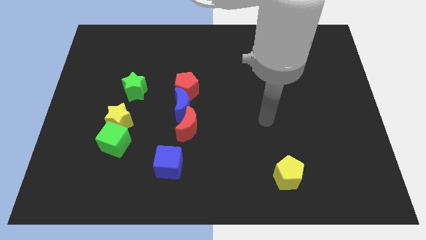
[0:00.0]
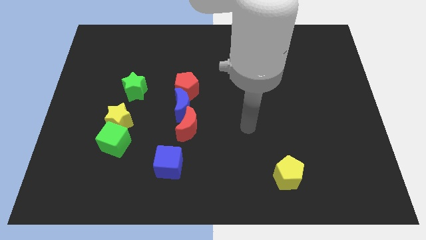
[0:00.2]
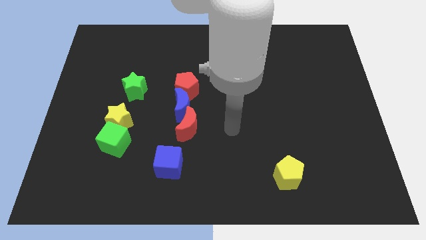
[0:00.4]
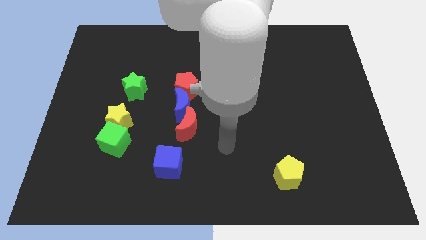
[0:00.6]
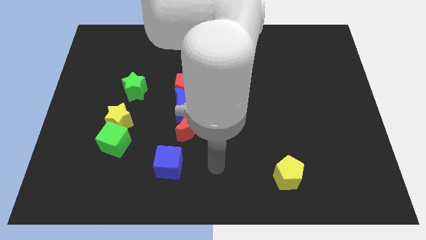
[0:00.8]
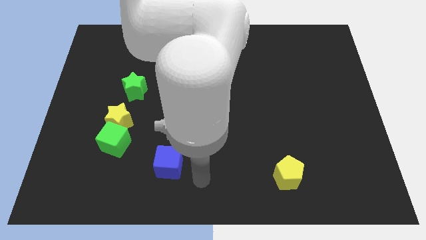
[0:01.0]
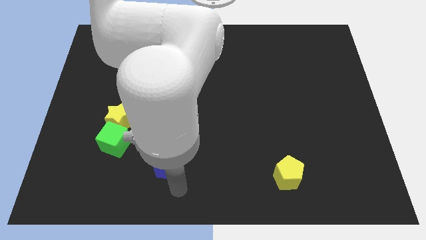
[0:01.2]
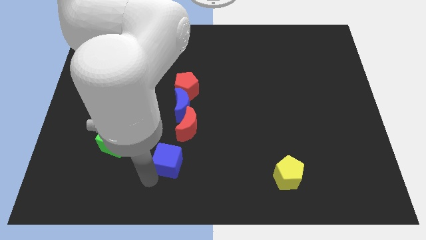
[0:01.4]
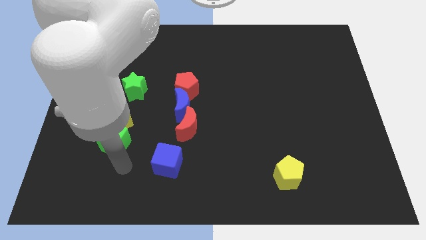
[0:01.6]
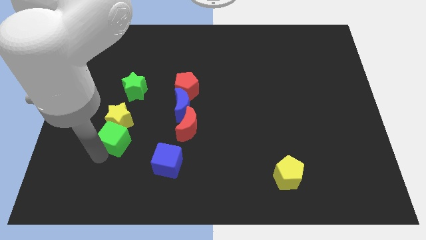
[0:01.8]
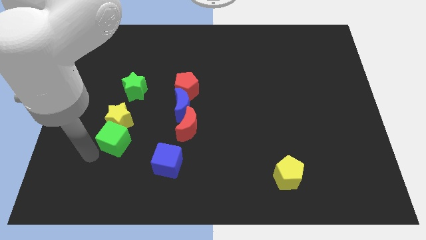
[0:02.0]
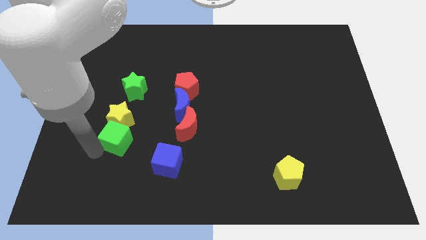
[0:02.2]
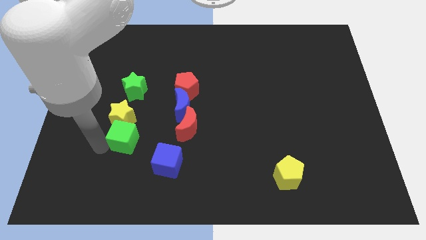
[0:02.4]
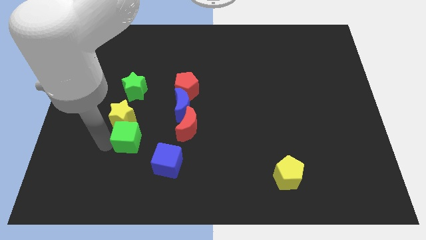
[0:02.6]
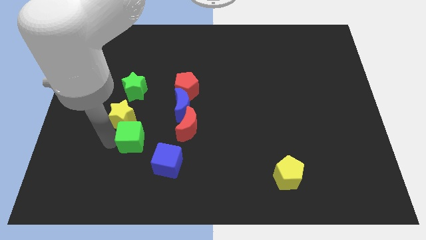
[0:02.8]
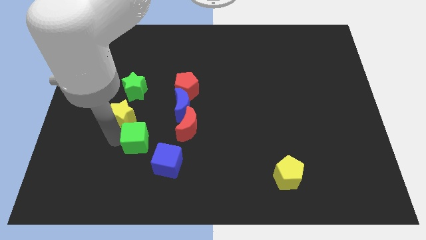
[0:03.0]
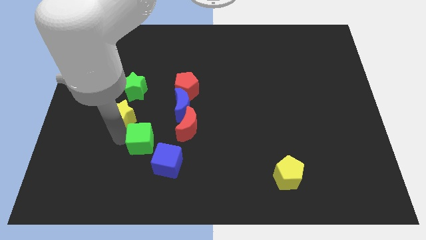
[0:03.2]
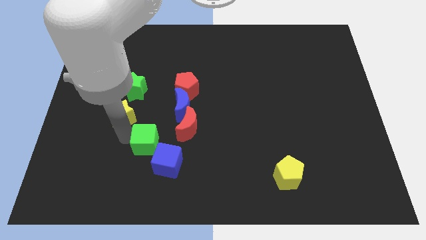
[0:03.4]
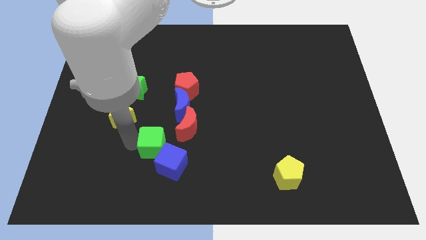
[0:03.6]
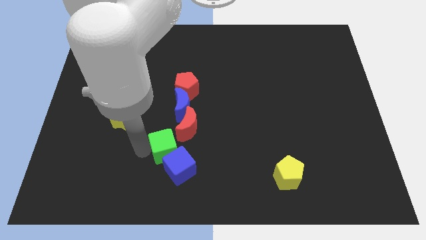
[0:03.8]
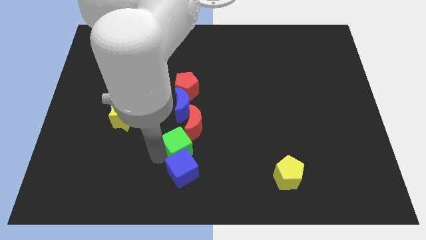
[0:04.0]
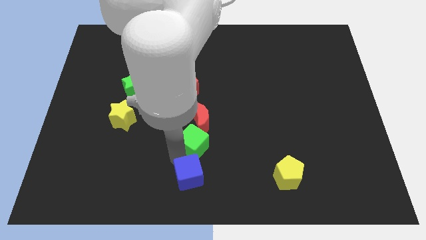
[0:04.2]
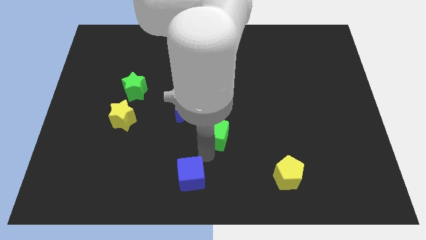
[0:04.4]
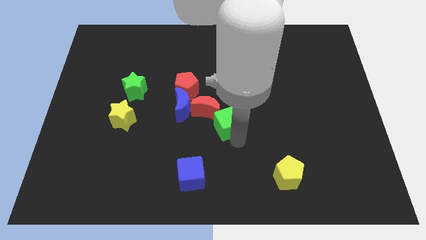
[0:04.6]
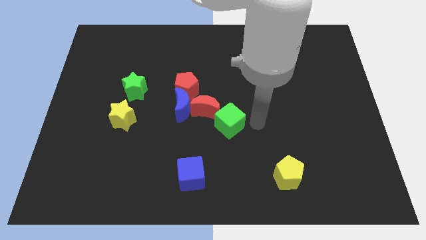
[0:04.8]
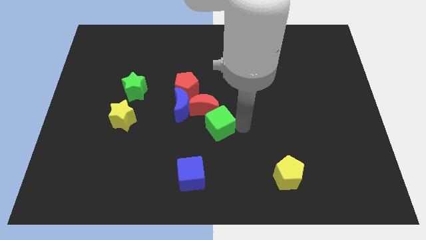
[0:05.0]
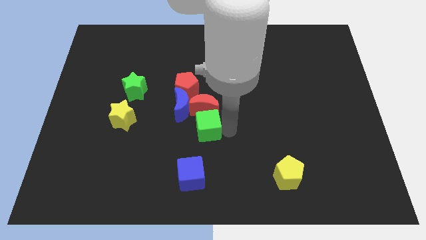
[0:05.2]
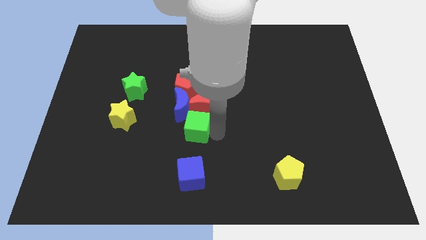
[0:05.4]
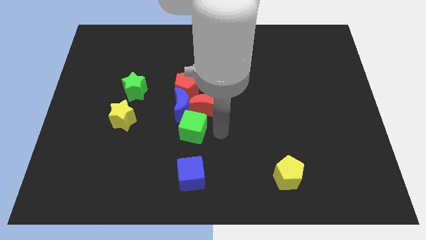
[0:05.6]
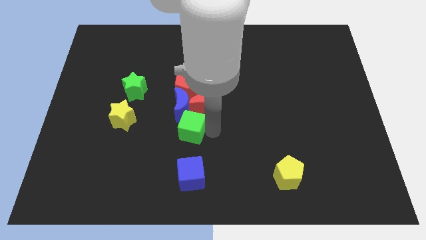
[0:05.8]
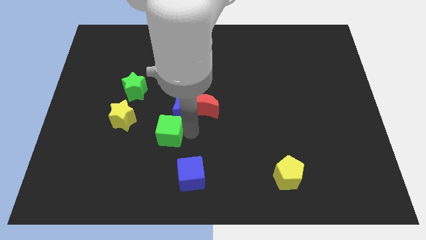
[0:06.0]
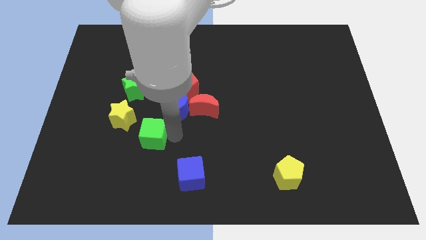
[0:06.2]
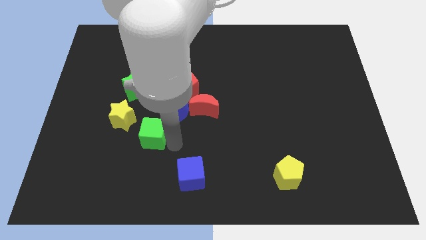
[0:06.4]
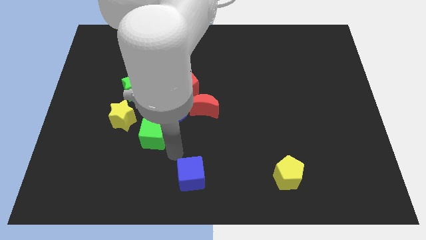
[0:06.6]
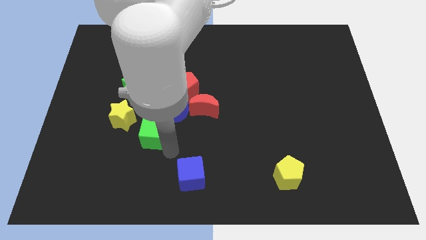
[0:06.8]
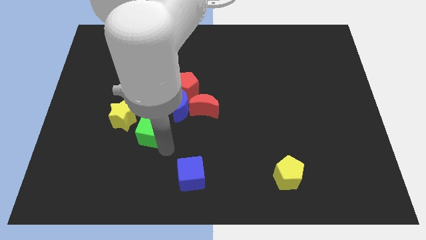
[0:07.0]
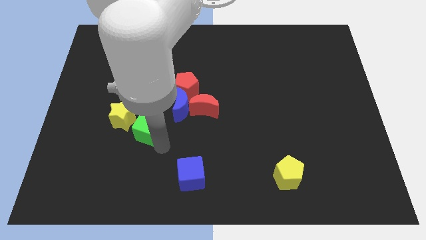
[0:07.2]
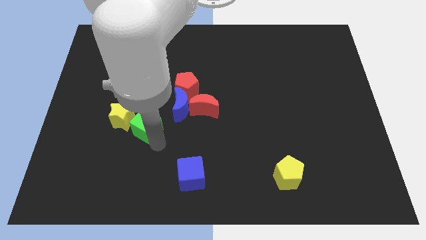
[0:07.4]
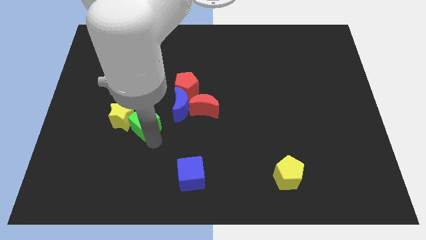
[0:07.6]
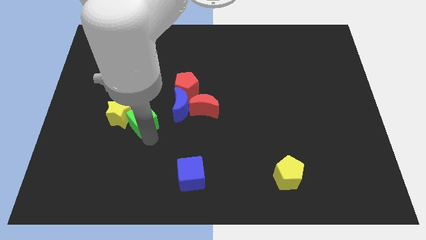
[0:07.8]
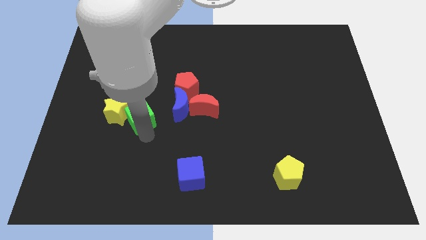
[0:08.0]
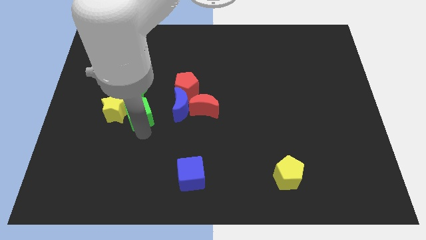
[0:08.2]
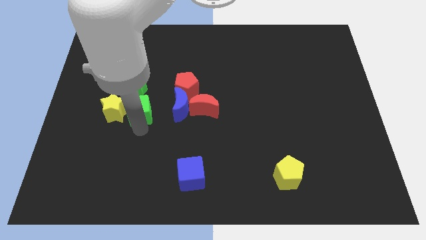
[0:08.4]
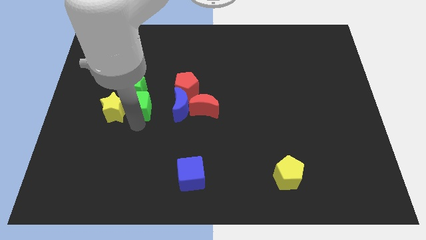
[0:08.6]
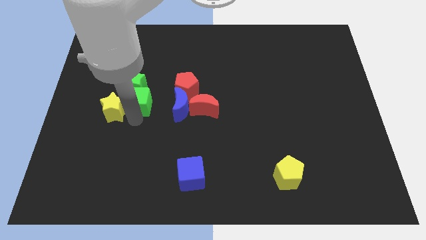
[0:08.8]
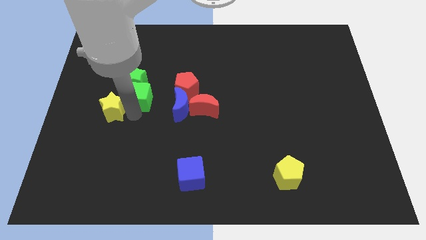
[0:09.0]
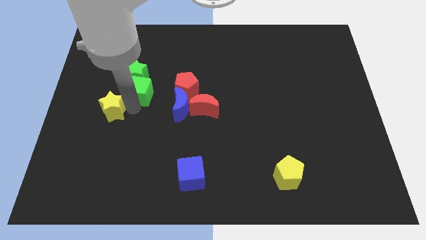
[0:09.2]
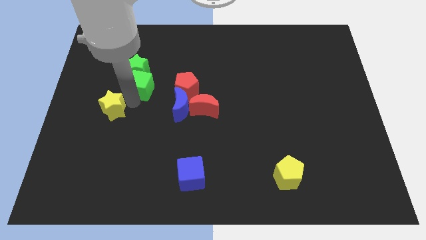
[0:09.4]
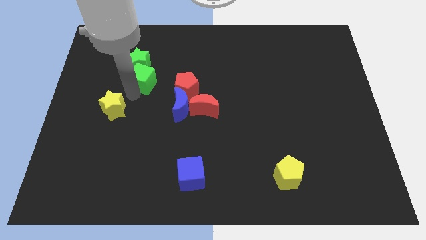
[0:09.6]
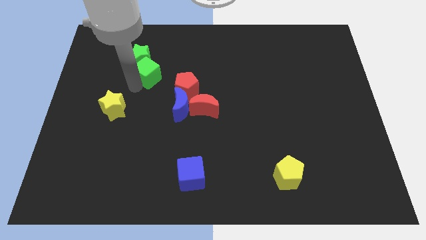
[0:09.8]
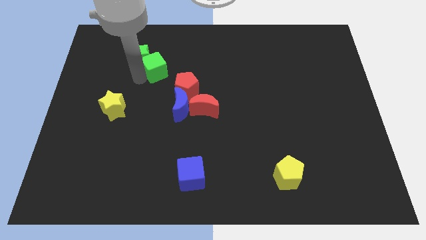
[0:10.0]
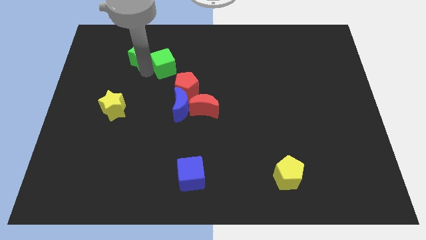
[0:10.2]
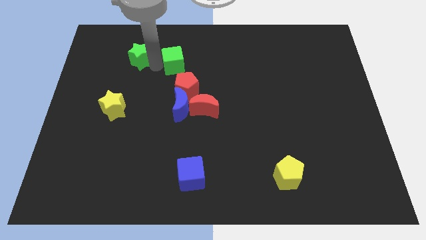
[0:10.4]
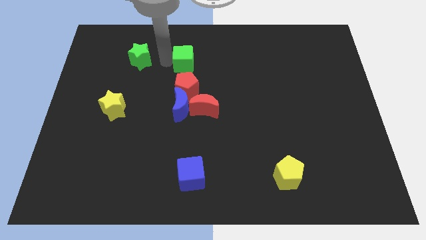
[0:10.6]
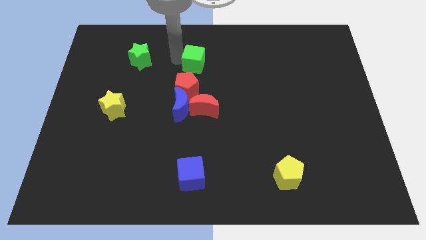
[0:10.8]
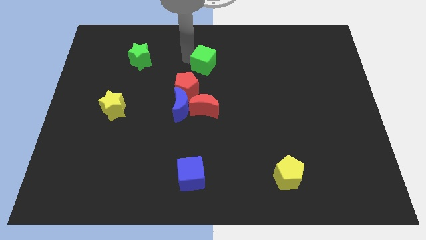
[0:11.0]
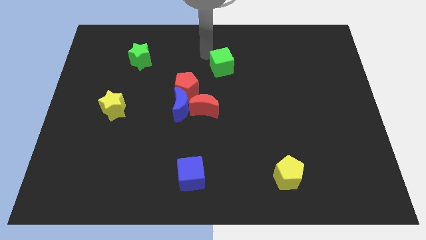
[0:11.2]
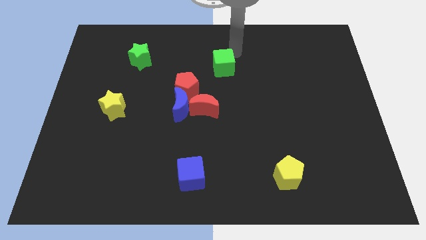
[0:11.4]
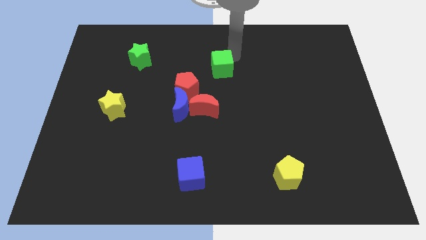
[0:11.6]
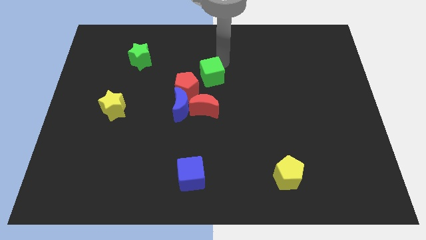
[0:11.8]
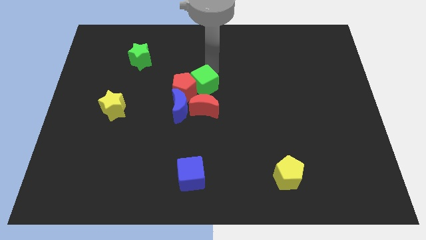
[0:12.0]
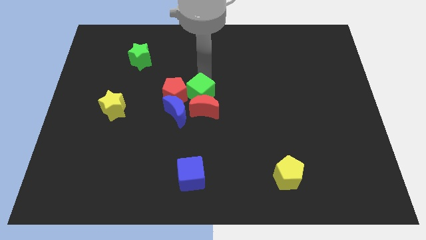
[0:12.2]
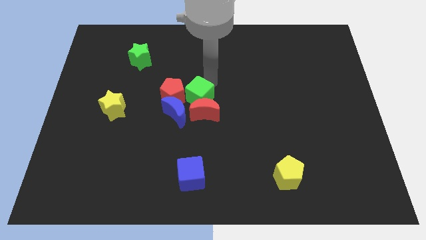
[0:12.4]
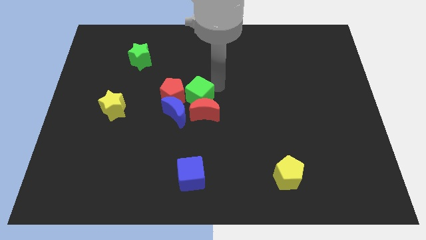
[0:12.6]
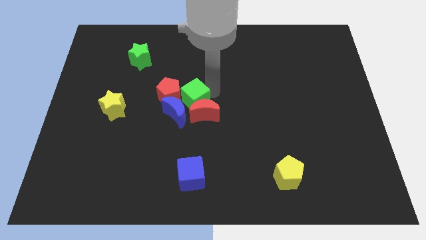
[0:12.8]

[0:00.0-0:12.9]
put the green cube next to the blue moon

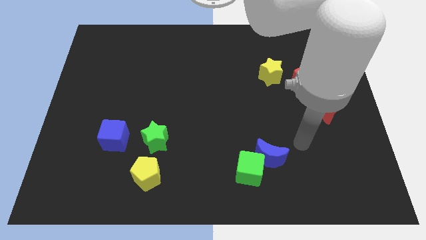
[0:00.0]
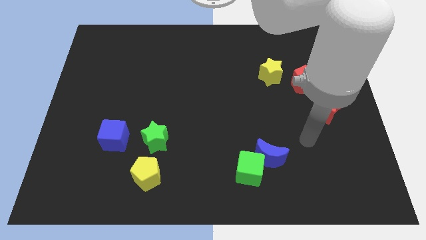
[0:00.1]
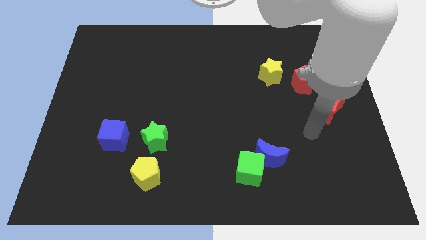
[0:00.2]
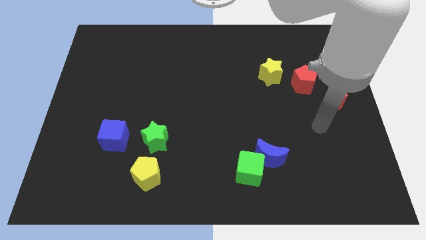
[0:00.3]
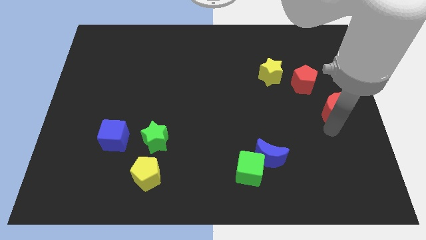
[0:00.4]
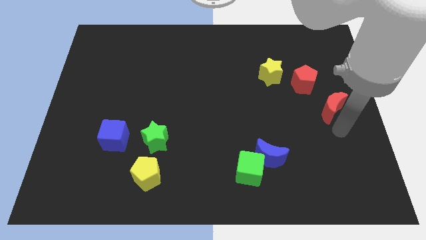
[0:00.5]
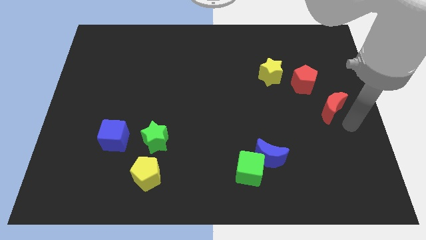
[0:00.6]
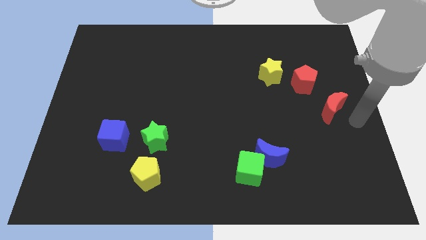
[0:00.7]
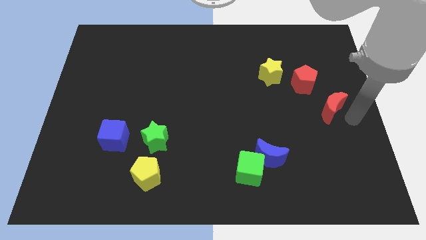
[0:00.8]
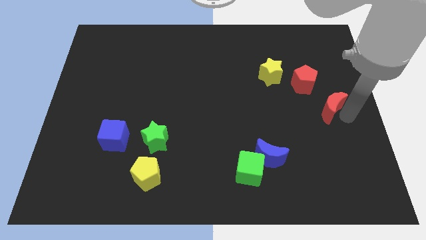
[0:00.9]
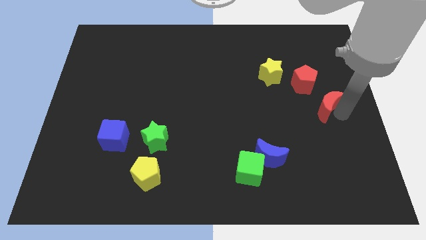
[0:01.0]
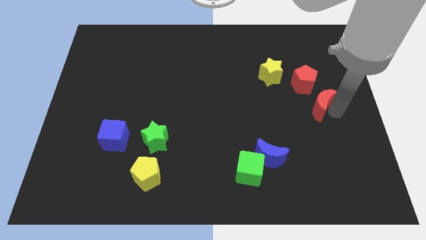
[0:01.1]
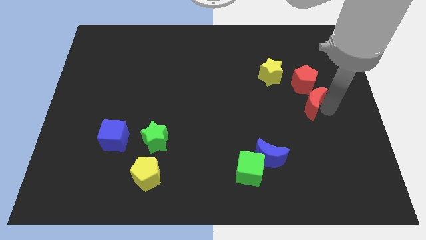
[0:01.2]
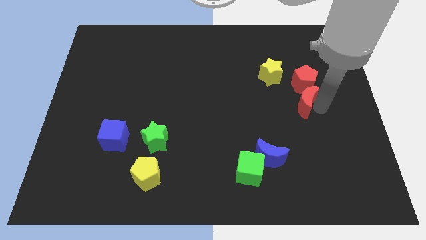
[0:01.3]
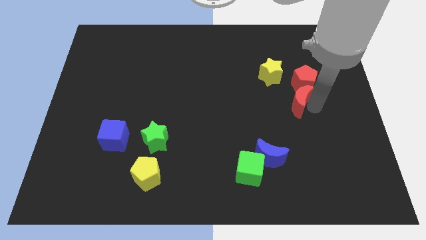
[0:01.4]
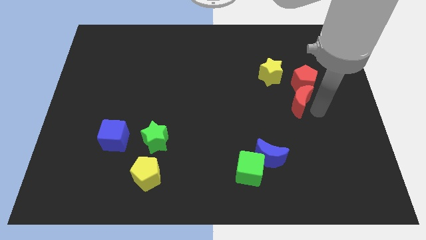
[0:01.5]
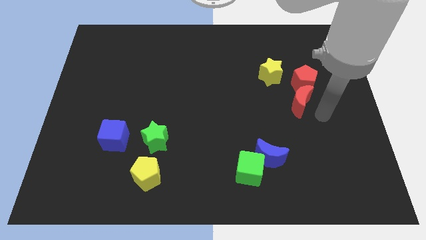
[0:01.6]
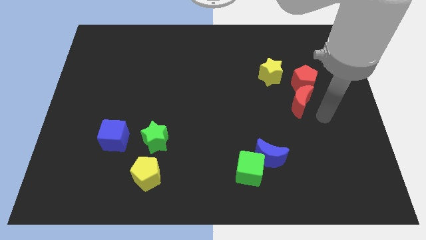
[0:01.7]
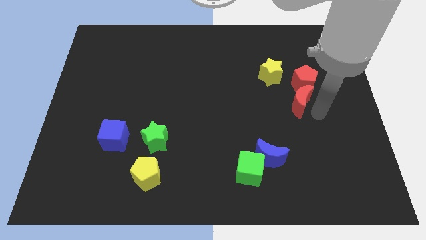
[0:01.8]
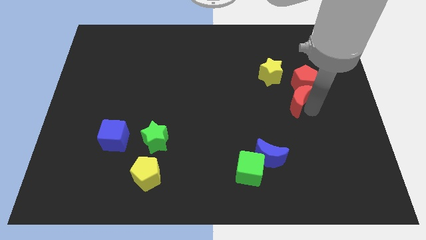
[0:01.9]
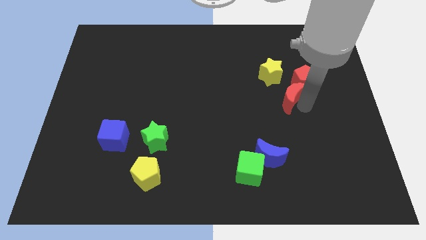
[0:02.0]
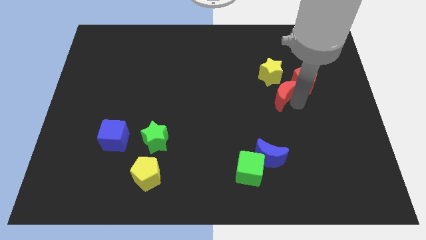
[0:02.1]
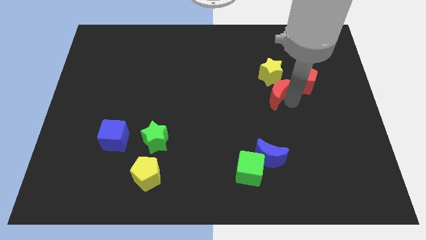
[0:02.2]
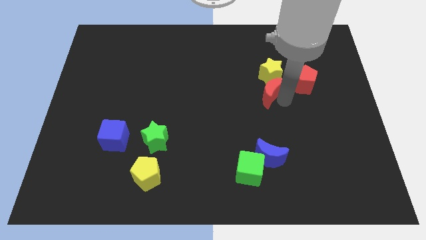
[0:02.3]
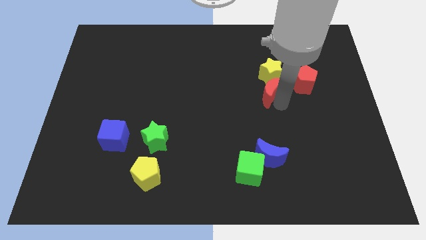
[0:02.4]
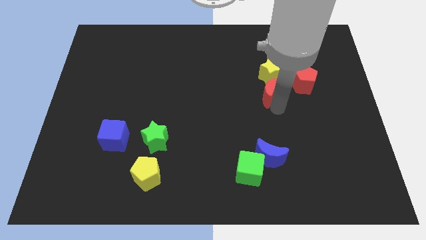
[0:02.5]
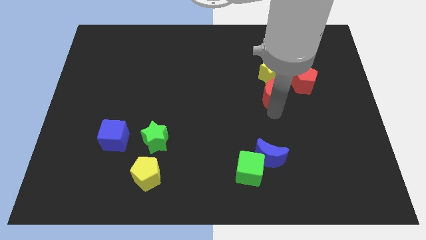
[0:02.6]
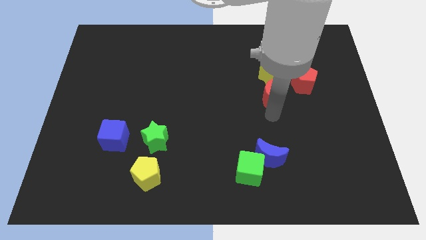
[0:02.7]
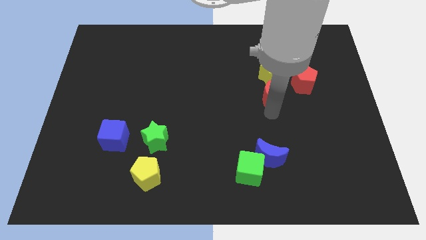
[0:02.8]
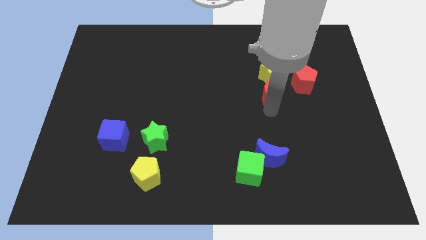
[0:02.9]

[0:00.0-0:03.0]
push the red moon to the yellow star
